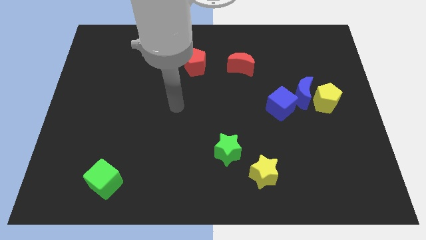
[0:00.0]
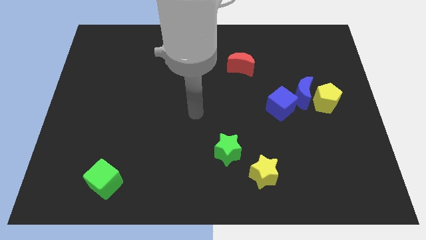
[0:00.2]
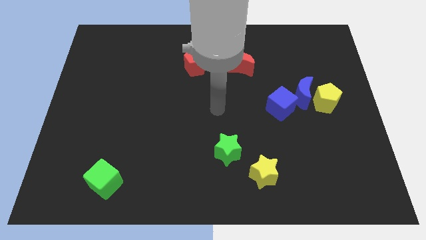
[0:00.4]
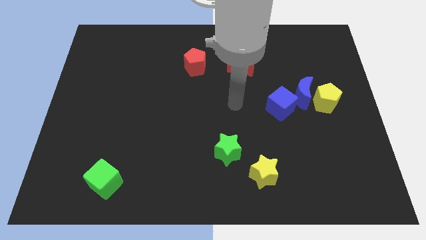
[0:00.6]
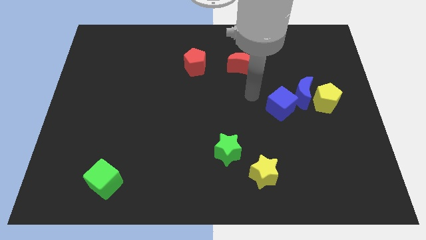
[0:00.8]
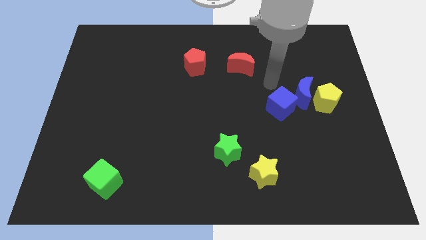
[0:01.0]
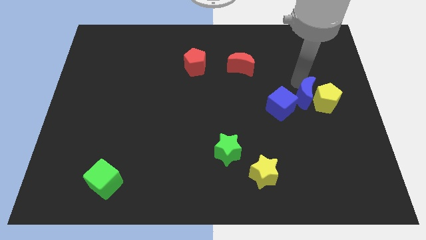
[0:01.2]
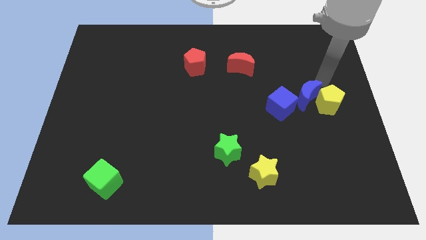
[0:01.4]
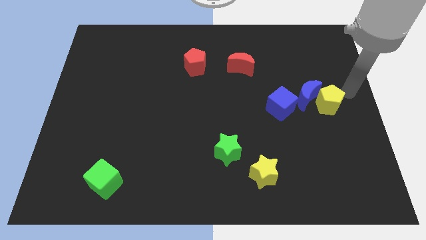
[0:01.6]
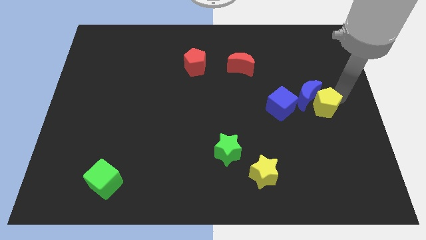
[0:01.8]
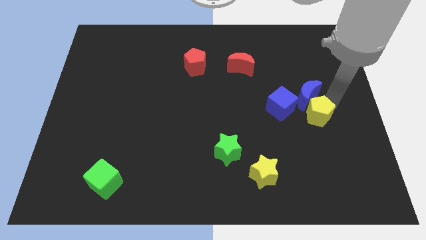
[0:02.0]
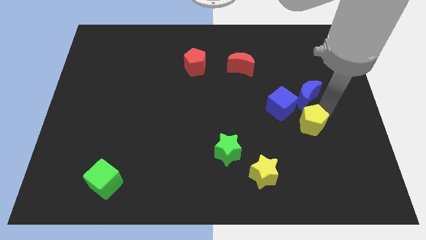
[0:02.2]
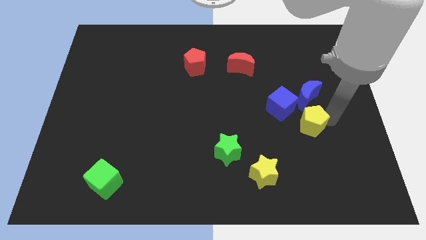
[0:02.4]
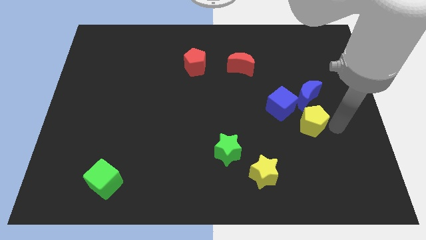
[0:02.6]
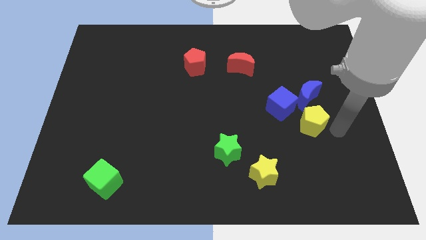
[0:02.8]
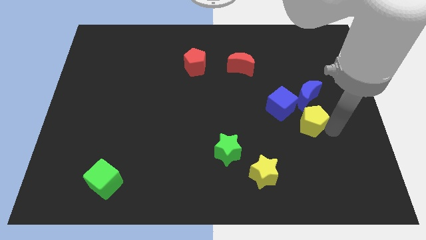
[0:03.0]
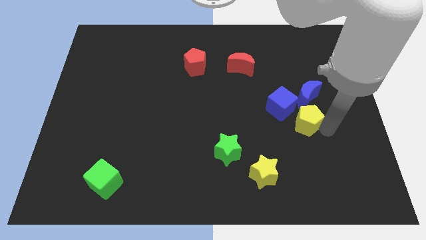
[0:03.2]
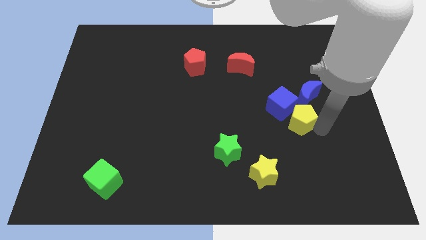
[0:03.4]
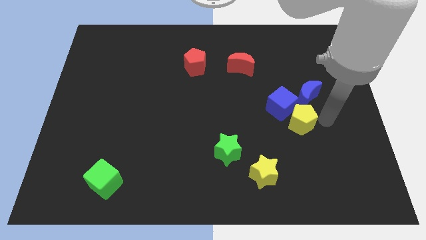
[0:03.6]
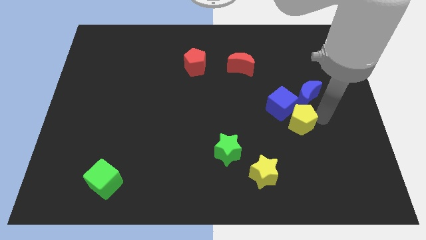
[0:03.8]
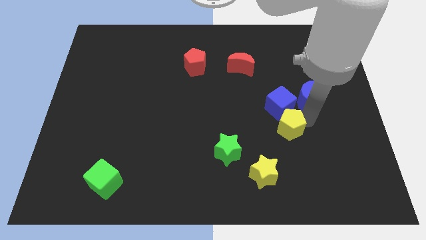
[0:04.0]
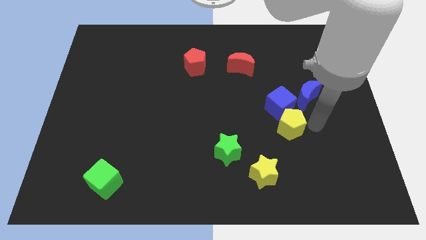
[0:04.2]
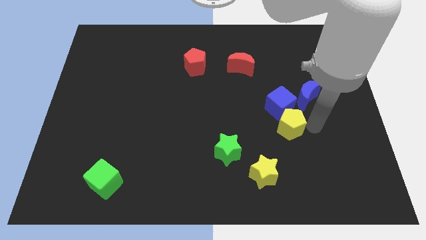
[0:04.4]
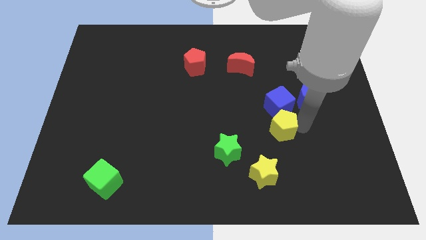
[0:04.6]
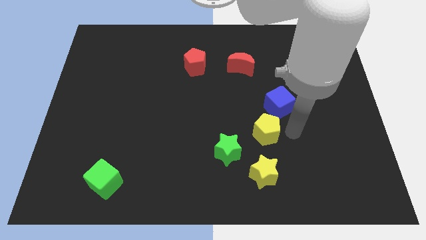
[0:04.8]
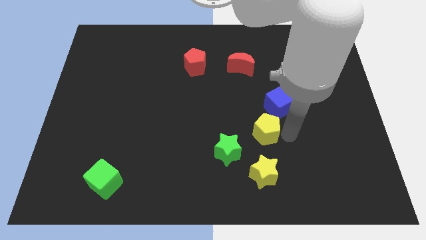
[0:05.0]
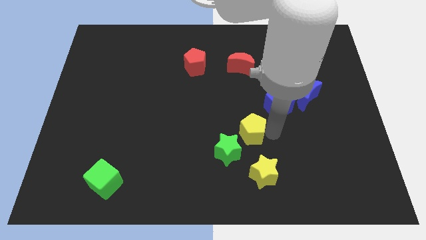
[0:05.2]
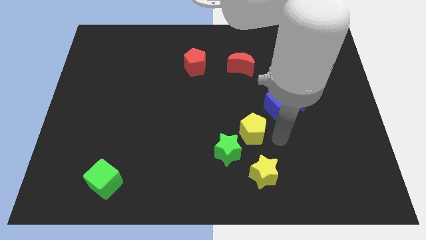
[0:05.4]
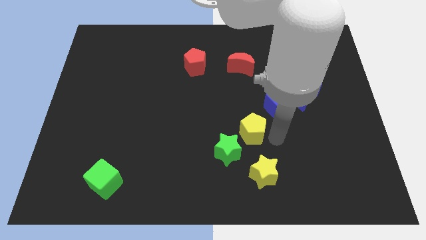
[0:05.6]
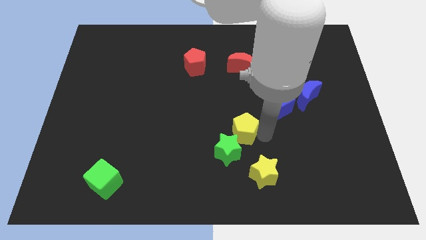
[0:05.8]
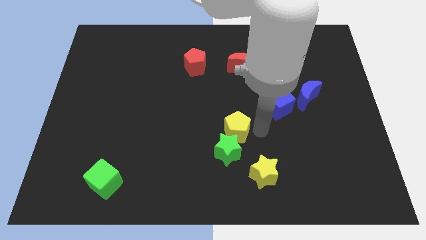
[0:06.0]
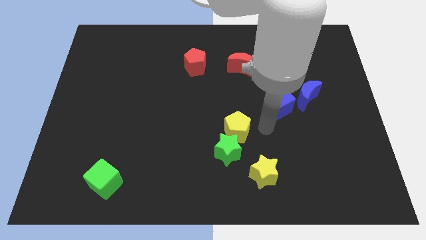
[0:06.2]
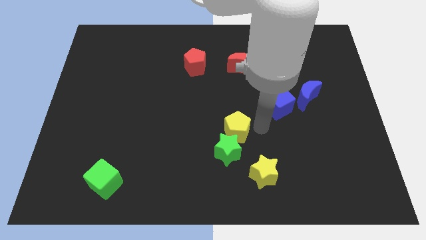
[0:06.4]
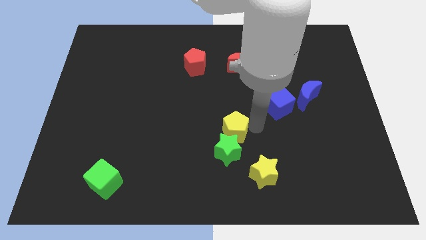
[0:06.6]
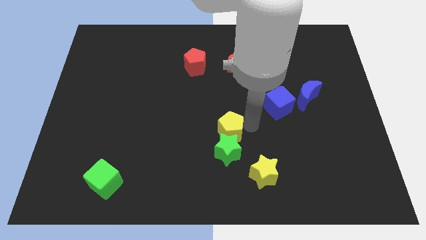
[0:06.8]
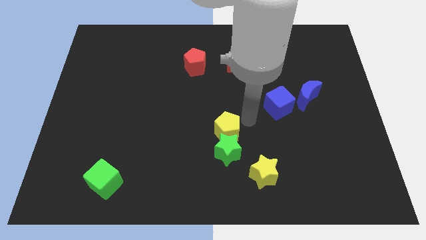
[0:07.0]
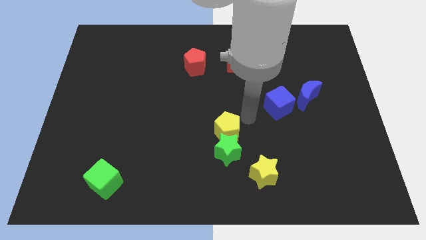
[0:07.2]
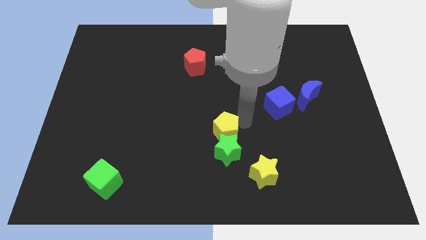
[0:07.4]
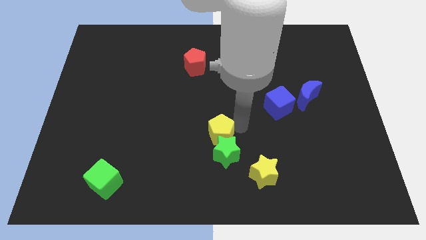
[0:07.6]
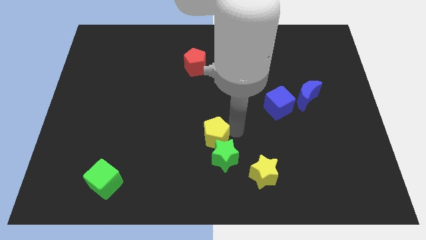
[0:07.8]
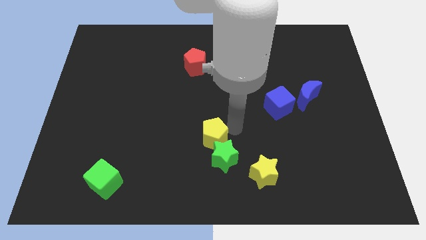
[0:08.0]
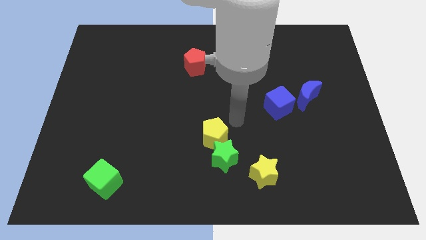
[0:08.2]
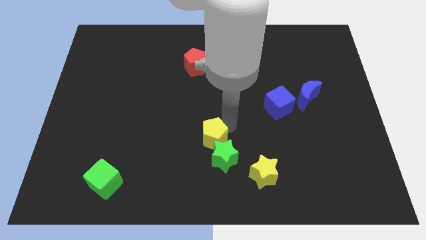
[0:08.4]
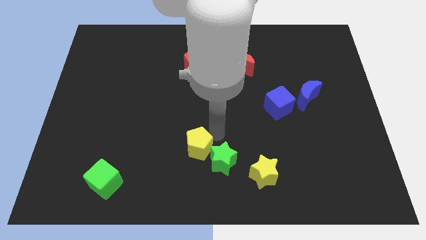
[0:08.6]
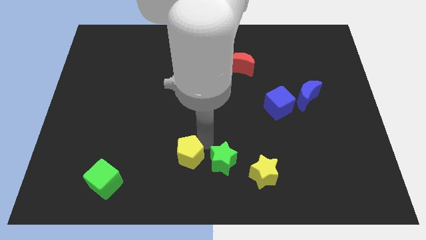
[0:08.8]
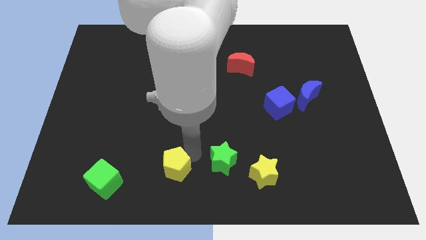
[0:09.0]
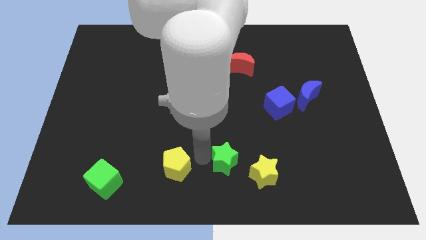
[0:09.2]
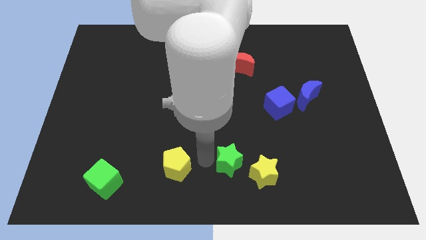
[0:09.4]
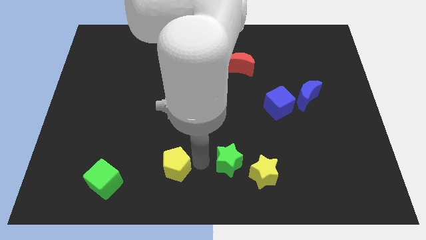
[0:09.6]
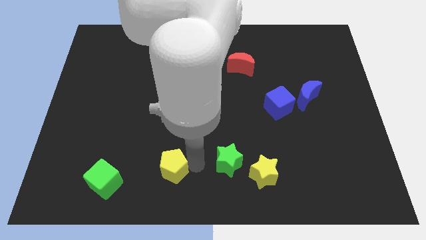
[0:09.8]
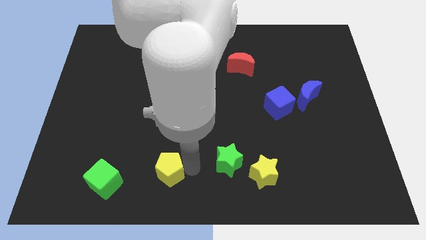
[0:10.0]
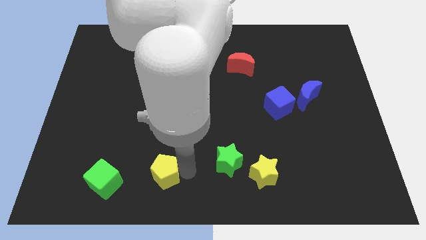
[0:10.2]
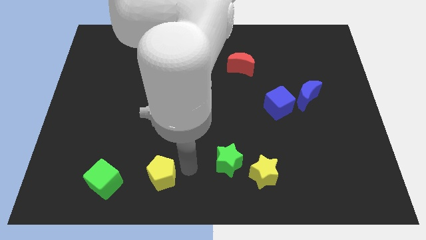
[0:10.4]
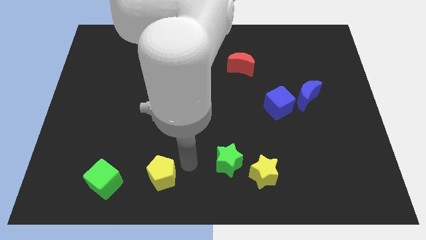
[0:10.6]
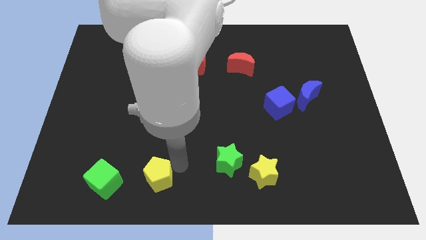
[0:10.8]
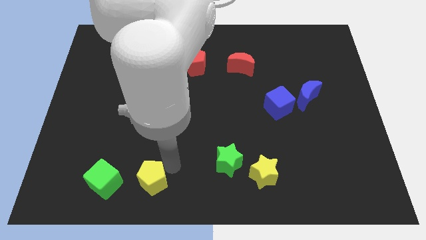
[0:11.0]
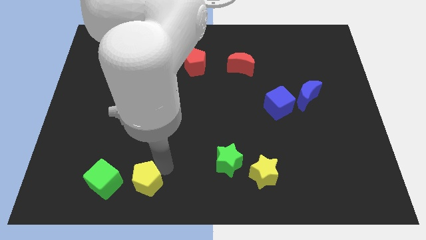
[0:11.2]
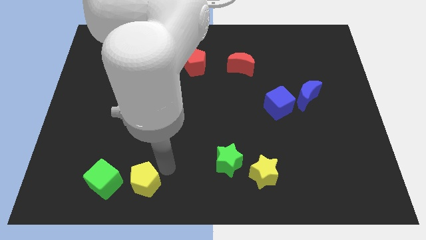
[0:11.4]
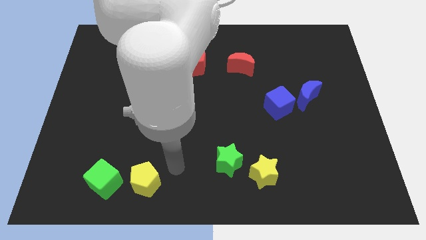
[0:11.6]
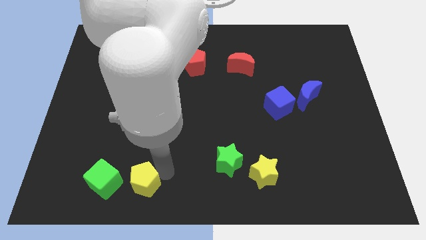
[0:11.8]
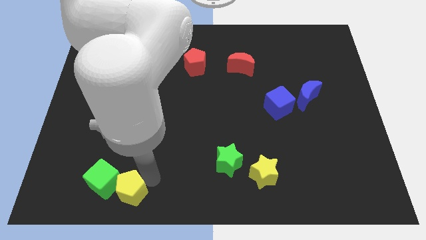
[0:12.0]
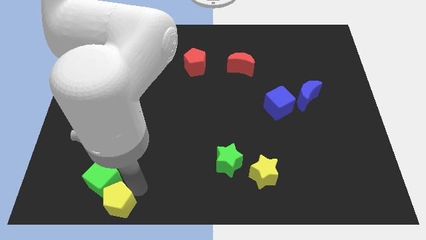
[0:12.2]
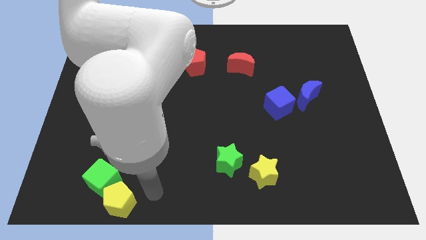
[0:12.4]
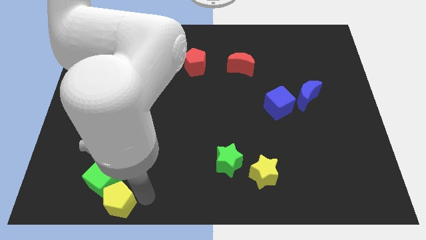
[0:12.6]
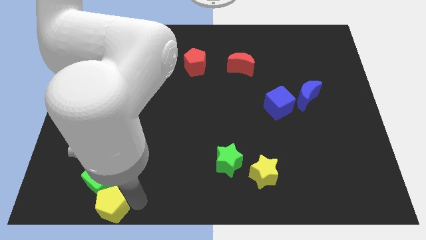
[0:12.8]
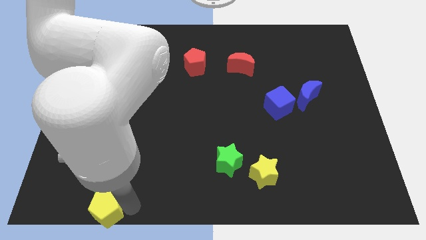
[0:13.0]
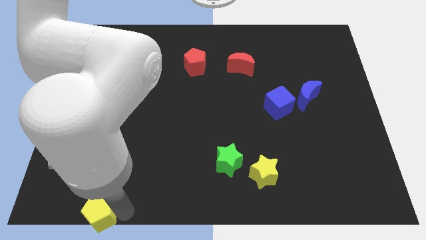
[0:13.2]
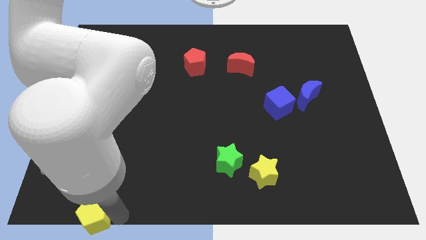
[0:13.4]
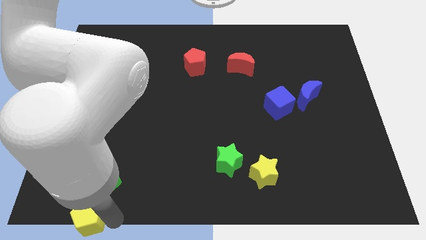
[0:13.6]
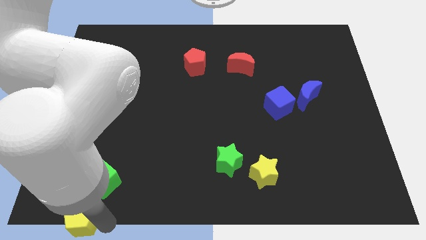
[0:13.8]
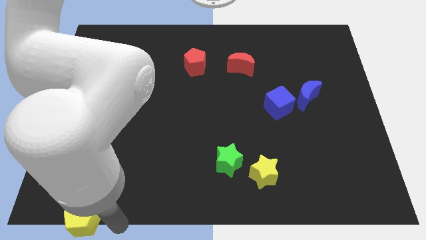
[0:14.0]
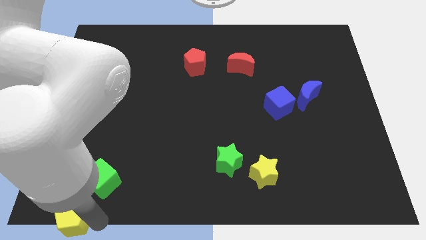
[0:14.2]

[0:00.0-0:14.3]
push the yellow pentagon to the bottom left
